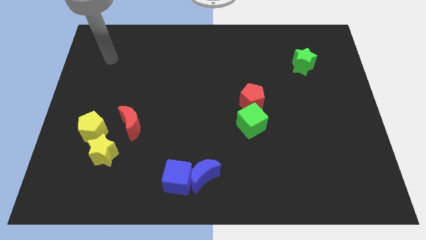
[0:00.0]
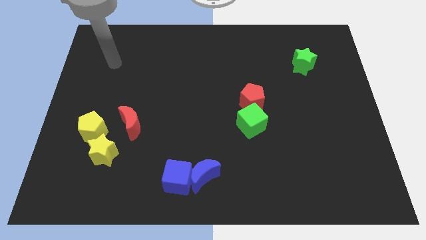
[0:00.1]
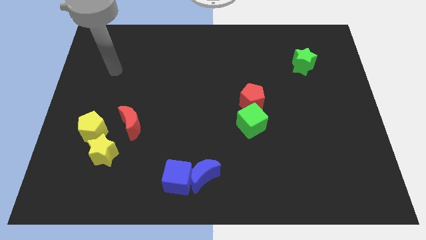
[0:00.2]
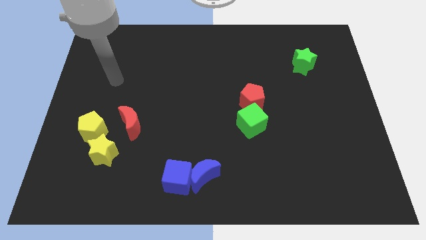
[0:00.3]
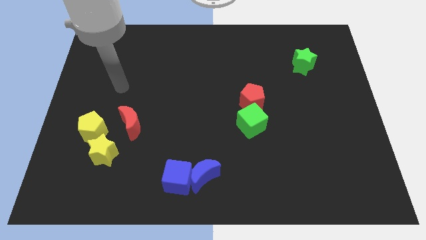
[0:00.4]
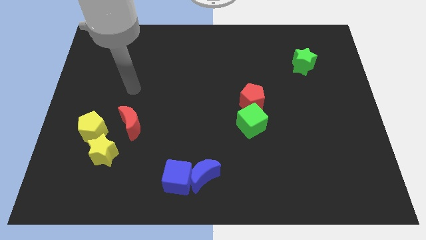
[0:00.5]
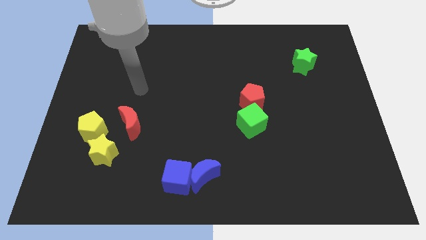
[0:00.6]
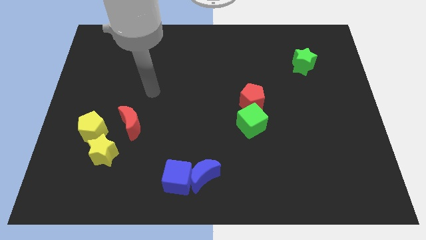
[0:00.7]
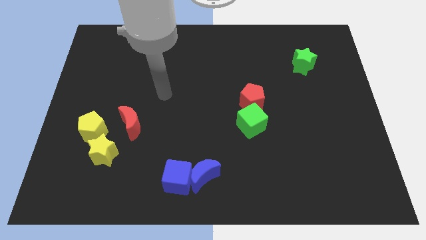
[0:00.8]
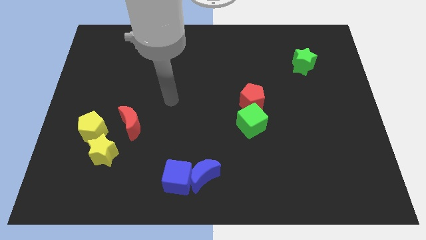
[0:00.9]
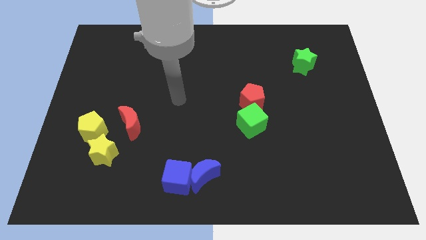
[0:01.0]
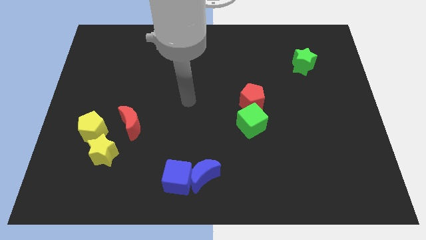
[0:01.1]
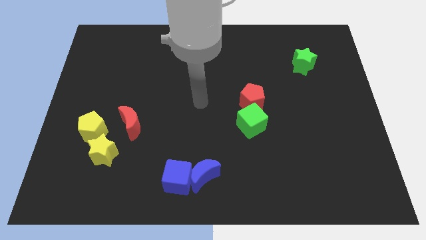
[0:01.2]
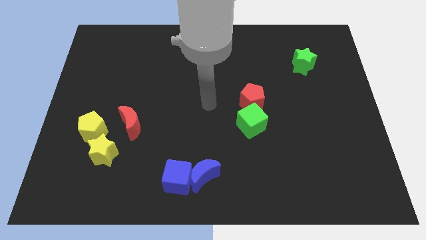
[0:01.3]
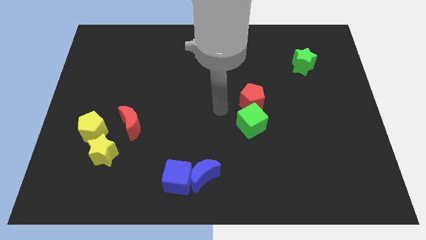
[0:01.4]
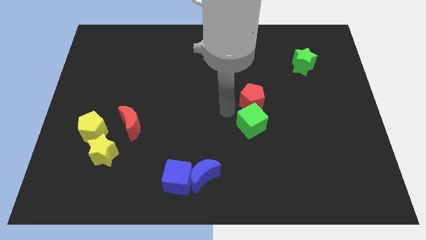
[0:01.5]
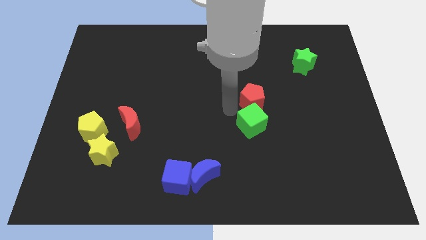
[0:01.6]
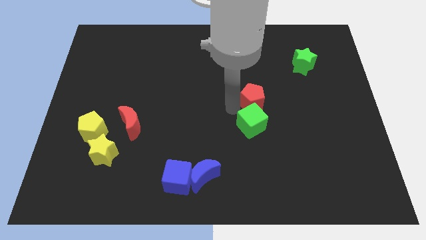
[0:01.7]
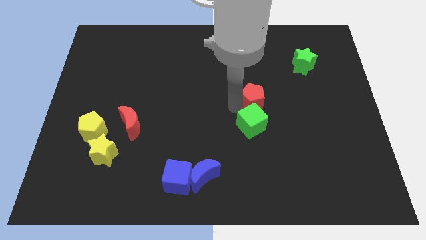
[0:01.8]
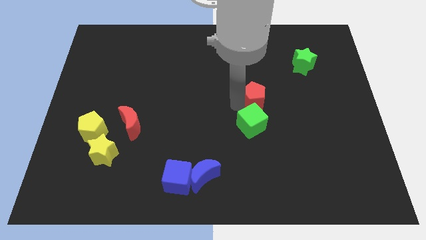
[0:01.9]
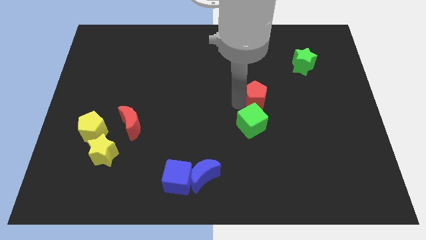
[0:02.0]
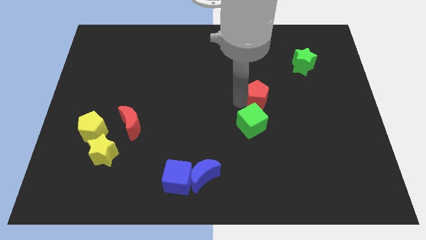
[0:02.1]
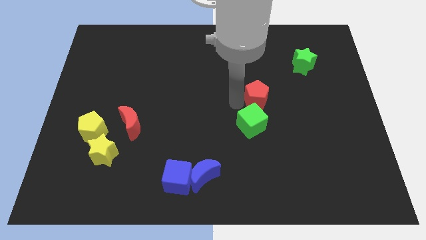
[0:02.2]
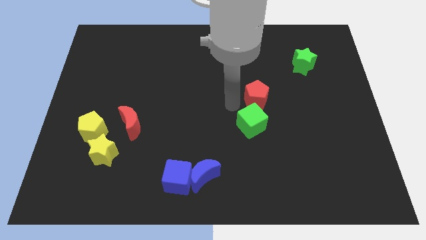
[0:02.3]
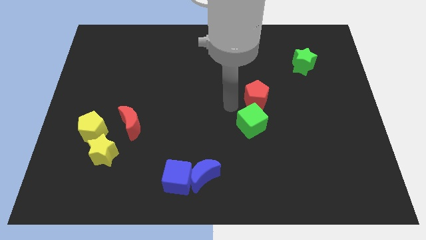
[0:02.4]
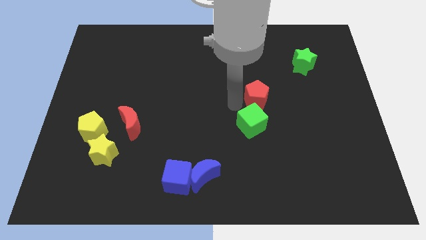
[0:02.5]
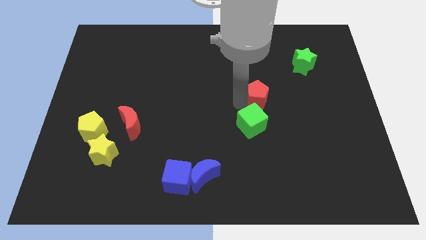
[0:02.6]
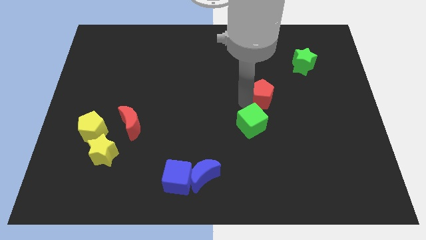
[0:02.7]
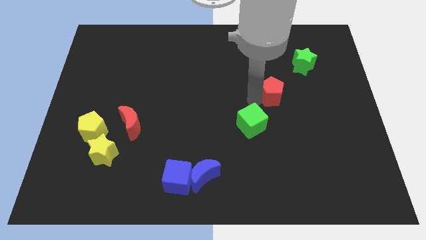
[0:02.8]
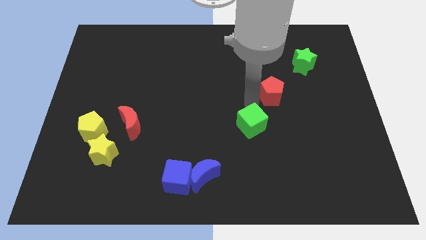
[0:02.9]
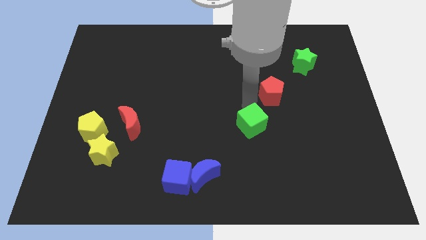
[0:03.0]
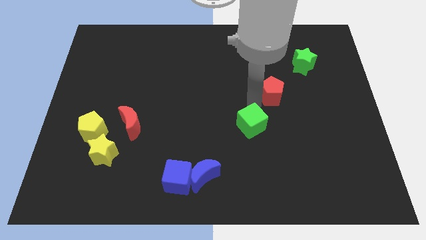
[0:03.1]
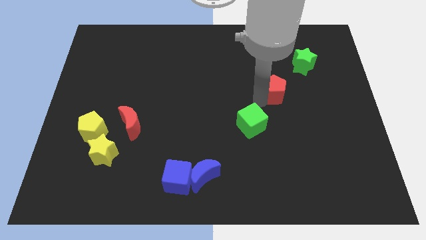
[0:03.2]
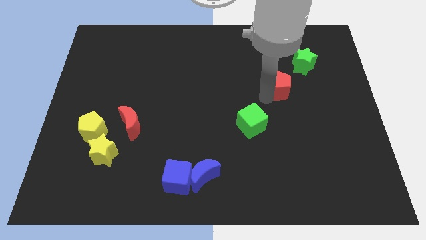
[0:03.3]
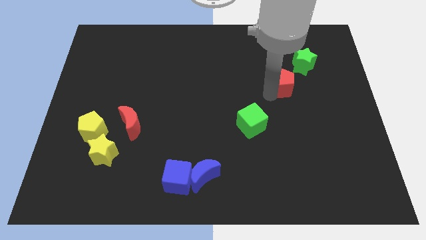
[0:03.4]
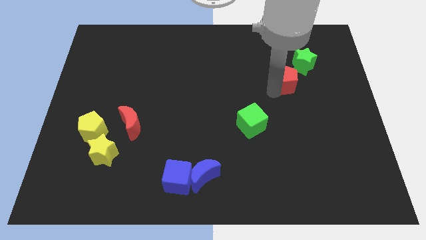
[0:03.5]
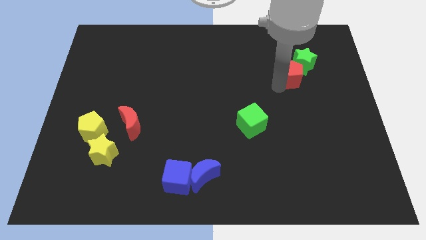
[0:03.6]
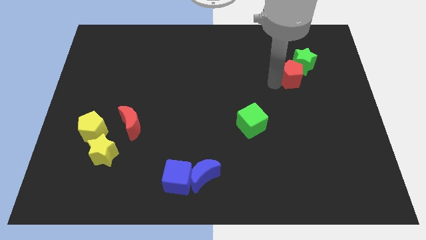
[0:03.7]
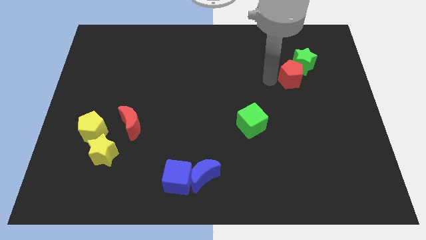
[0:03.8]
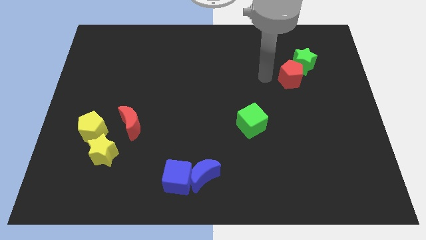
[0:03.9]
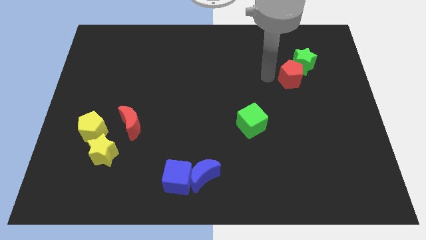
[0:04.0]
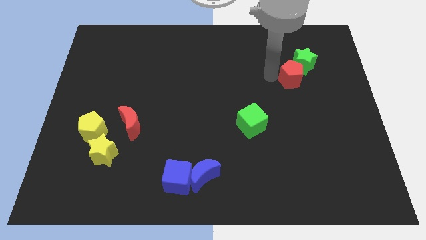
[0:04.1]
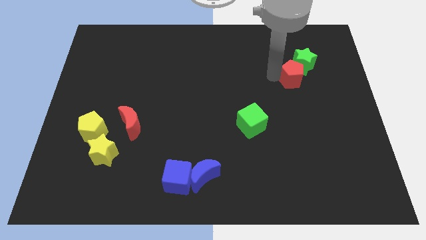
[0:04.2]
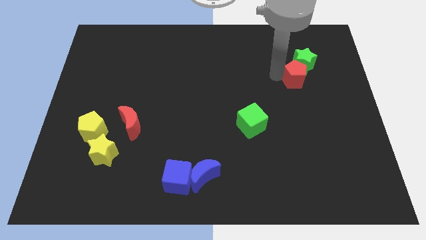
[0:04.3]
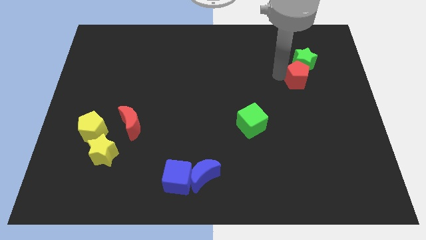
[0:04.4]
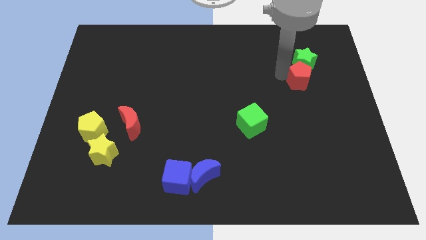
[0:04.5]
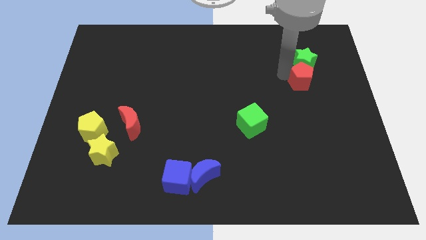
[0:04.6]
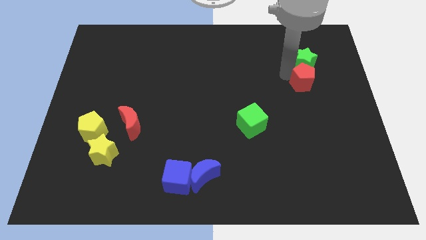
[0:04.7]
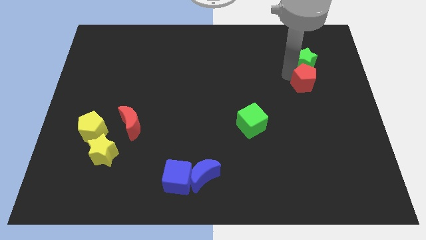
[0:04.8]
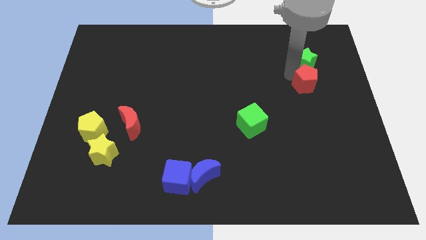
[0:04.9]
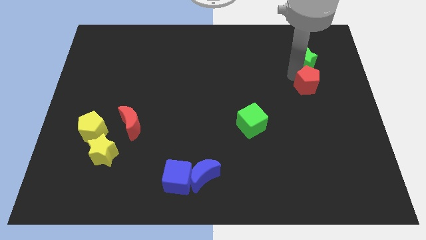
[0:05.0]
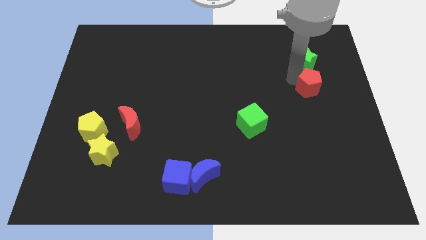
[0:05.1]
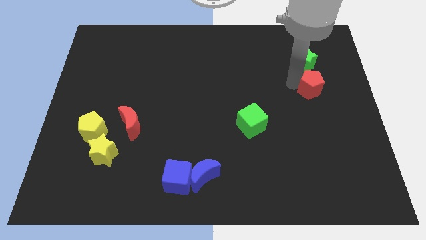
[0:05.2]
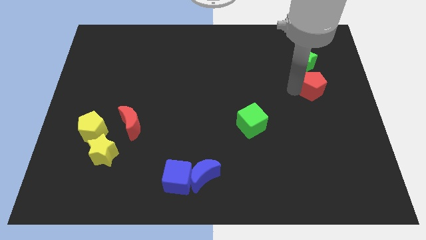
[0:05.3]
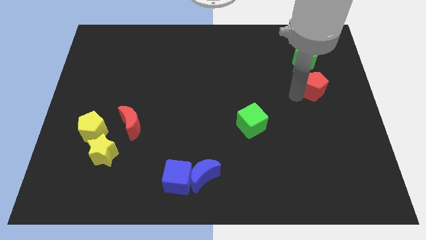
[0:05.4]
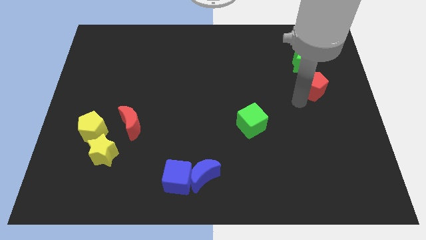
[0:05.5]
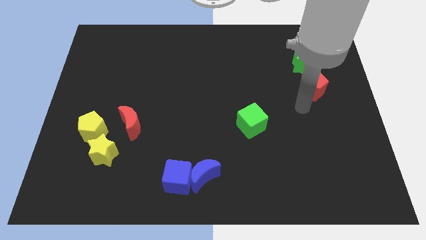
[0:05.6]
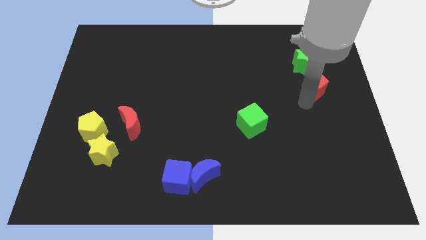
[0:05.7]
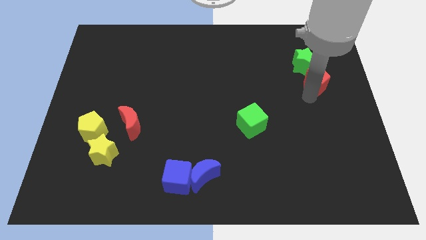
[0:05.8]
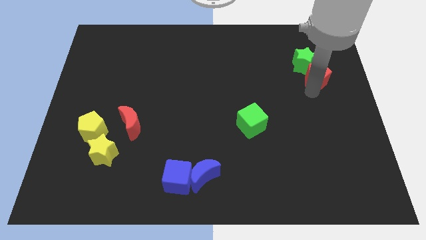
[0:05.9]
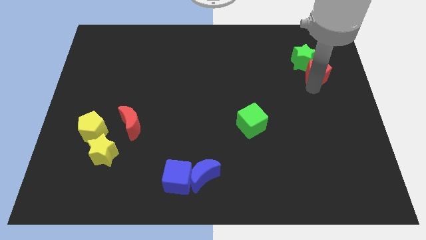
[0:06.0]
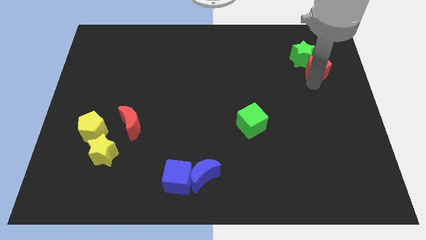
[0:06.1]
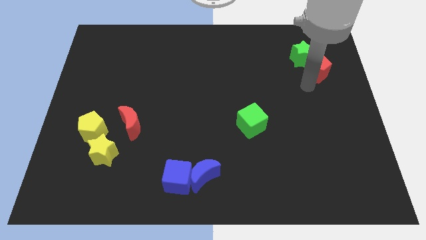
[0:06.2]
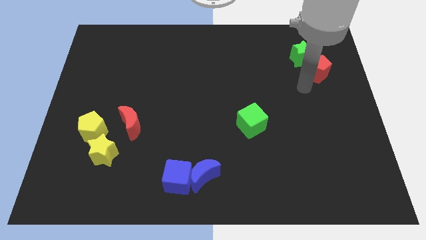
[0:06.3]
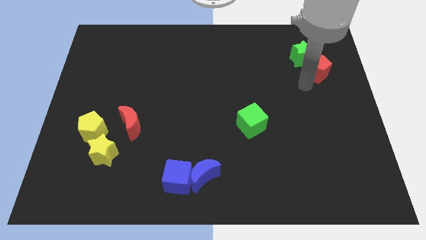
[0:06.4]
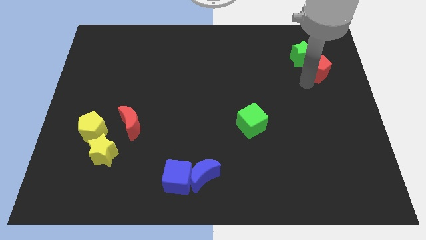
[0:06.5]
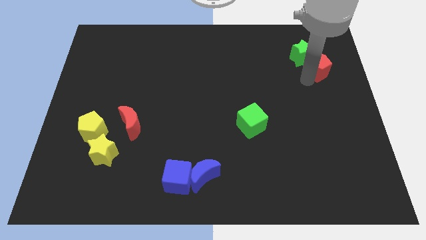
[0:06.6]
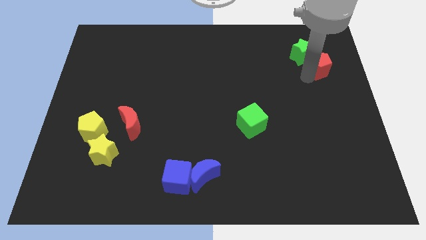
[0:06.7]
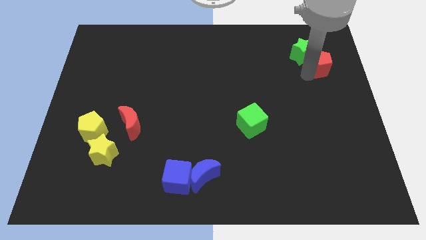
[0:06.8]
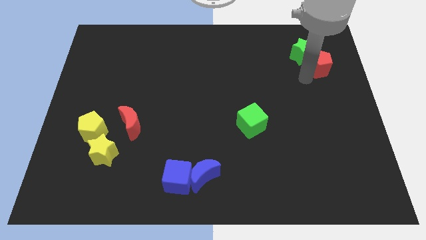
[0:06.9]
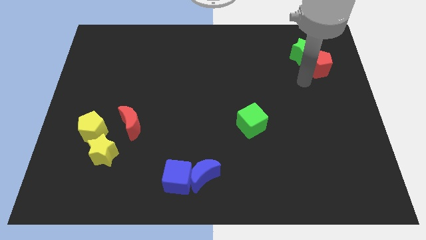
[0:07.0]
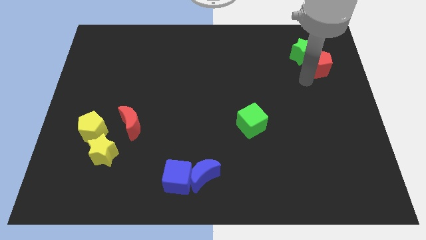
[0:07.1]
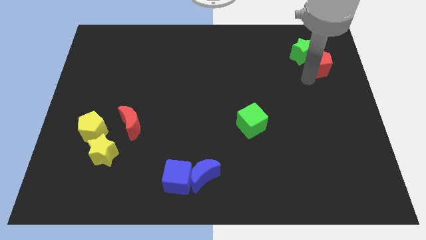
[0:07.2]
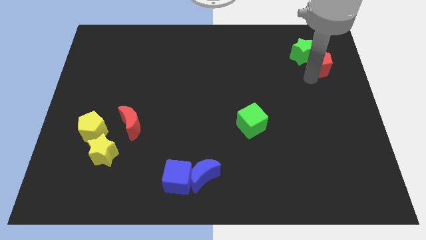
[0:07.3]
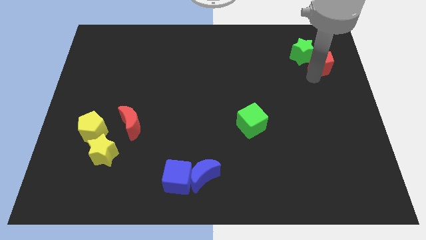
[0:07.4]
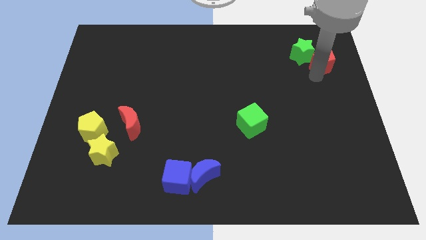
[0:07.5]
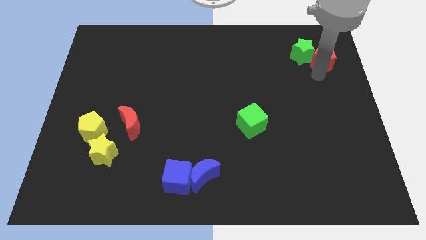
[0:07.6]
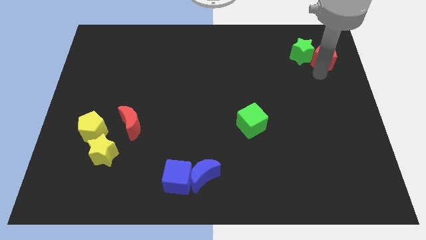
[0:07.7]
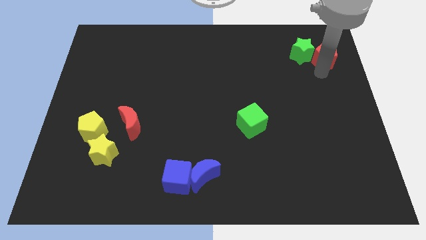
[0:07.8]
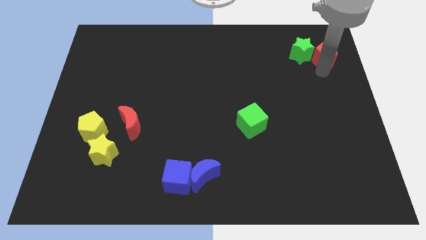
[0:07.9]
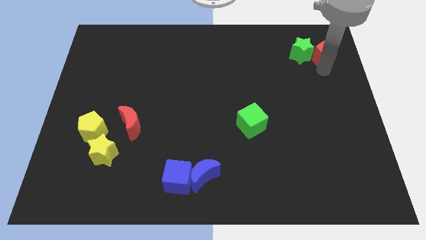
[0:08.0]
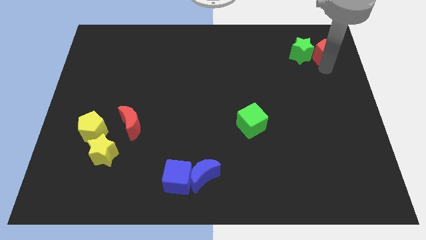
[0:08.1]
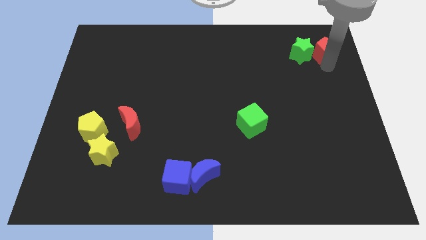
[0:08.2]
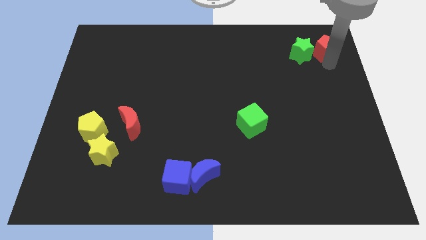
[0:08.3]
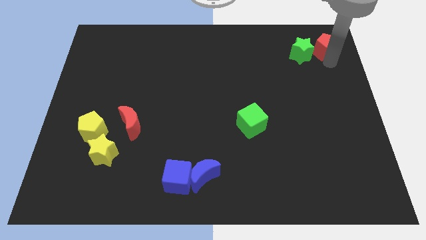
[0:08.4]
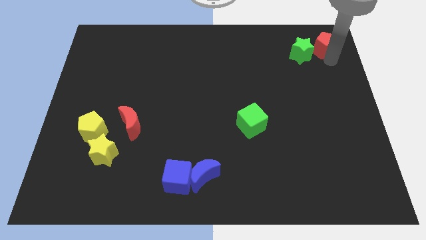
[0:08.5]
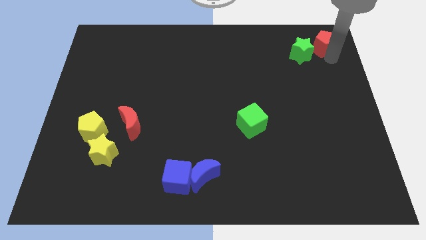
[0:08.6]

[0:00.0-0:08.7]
move the red pentagon to the upper right corner
